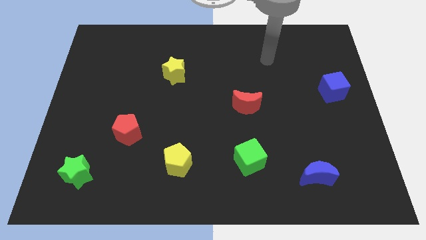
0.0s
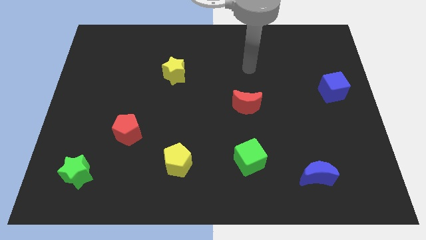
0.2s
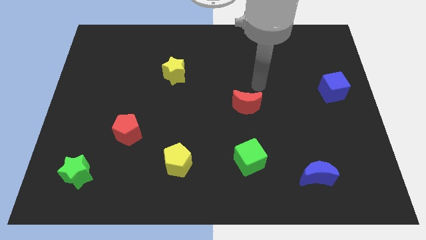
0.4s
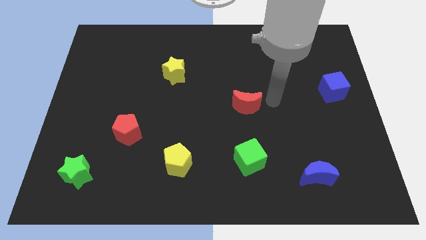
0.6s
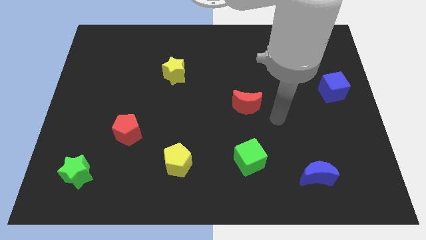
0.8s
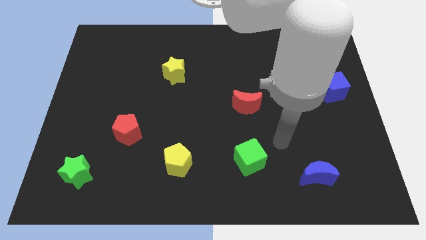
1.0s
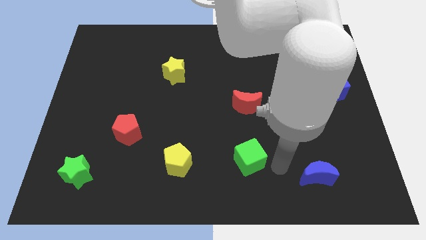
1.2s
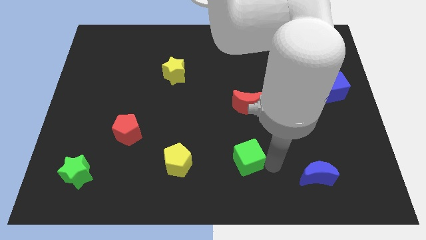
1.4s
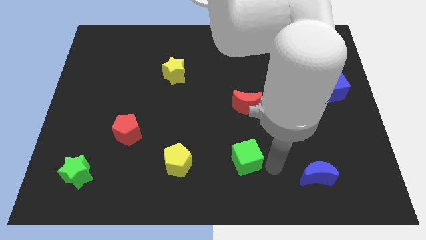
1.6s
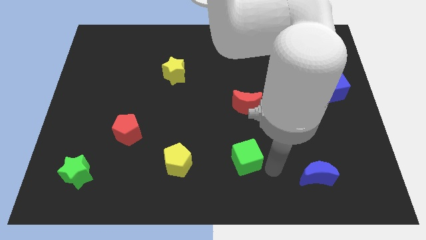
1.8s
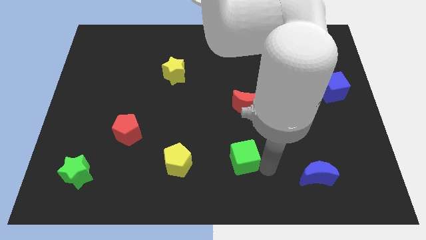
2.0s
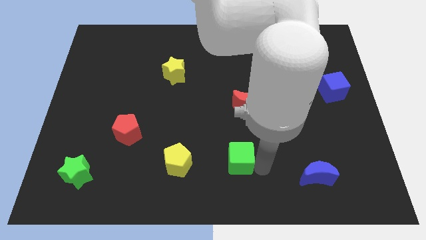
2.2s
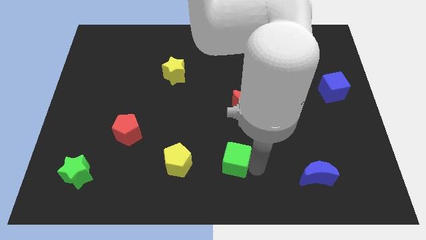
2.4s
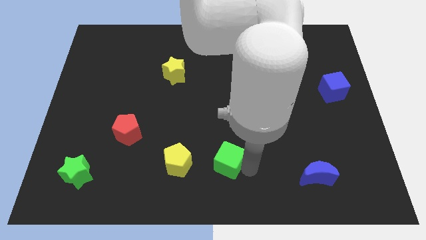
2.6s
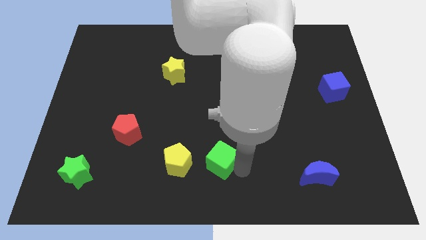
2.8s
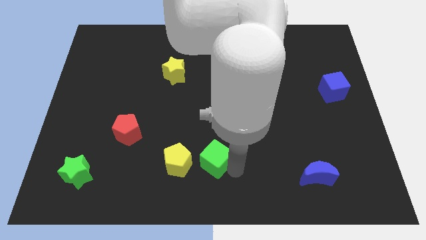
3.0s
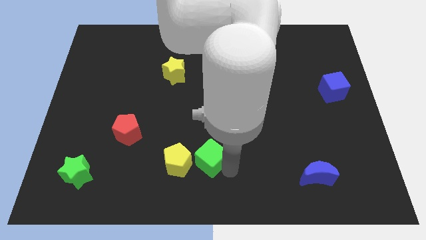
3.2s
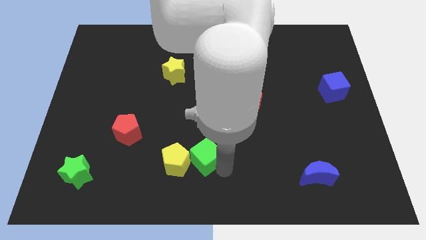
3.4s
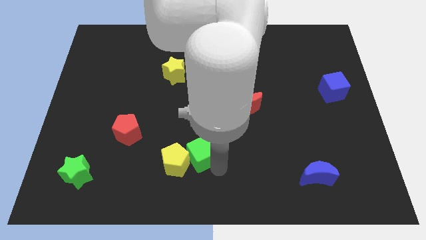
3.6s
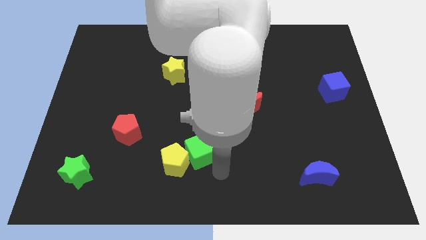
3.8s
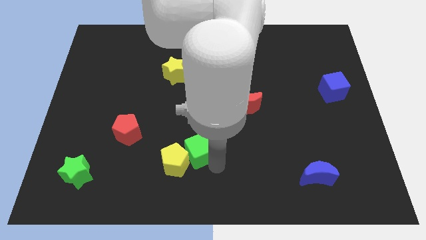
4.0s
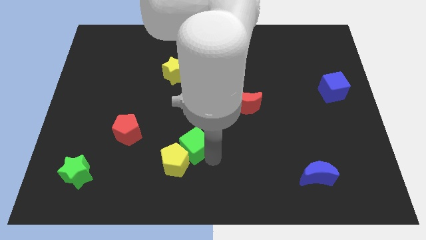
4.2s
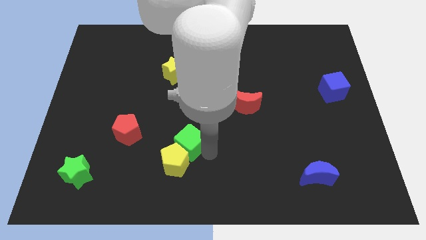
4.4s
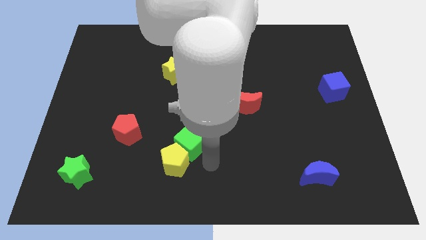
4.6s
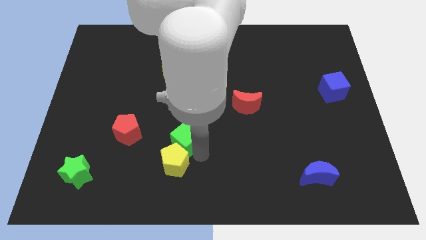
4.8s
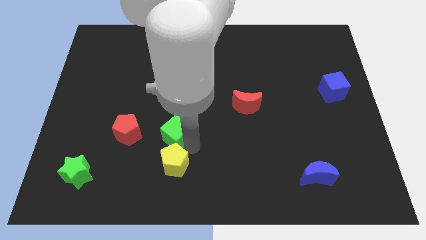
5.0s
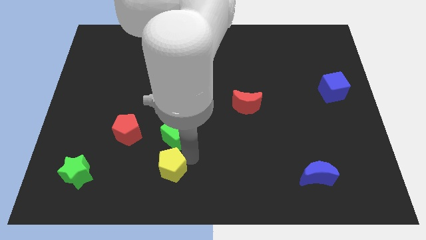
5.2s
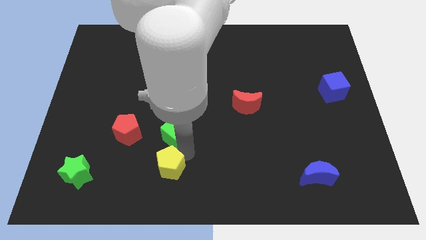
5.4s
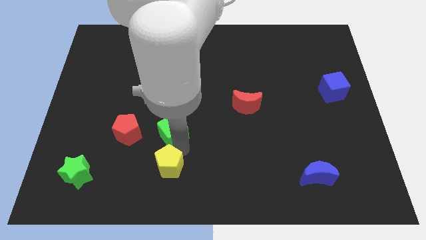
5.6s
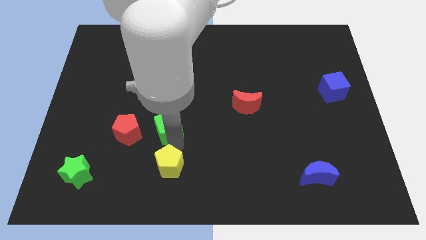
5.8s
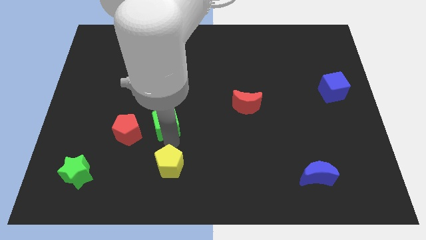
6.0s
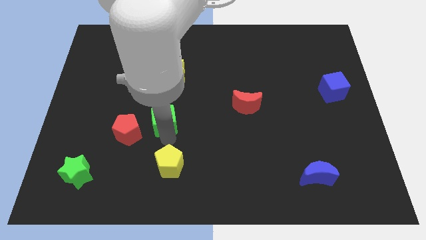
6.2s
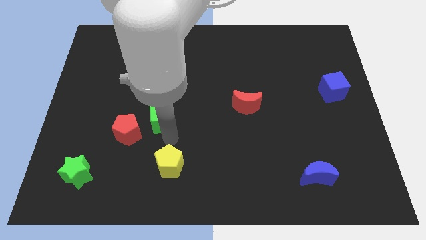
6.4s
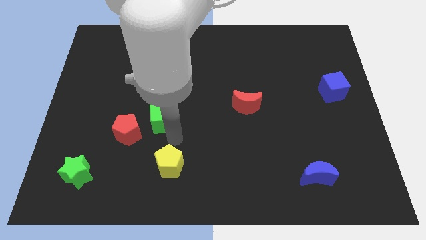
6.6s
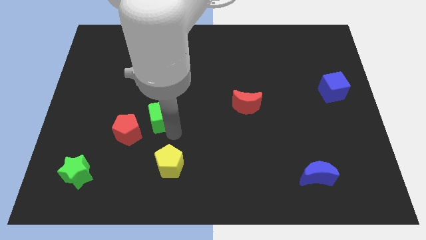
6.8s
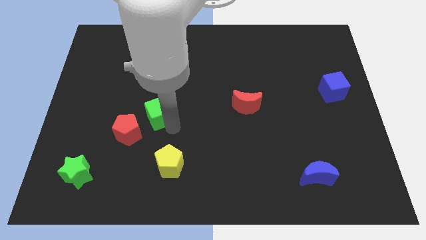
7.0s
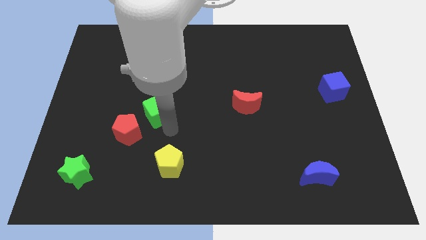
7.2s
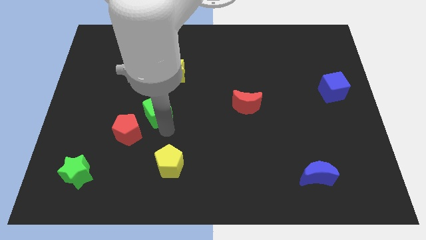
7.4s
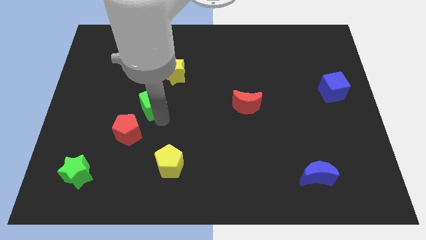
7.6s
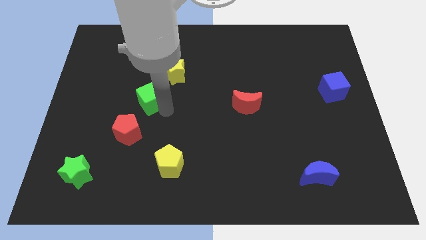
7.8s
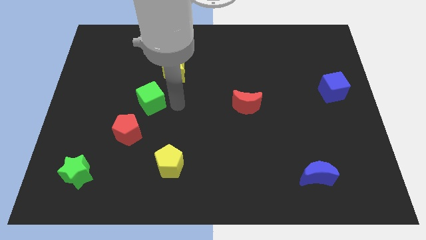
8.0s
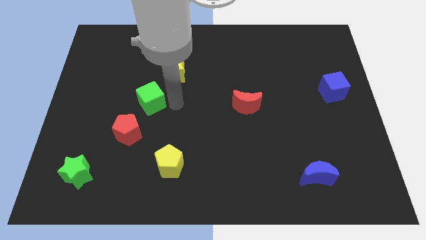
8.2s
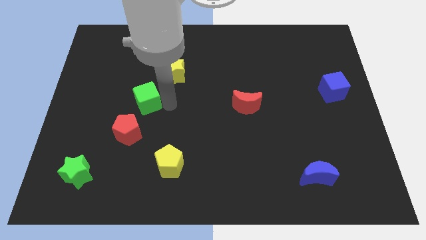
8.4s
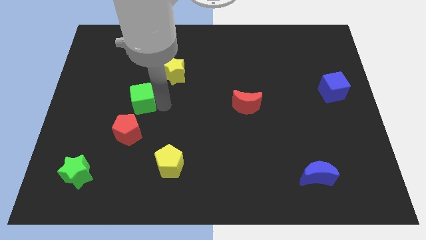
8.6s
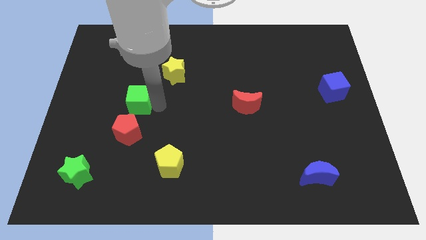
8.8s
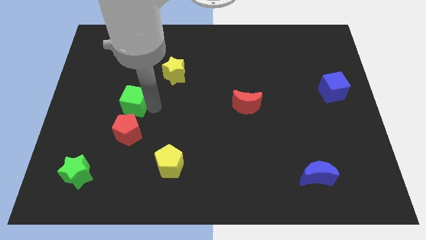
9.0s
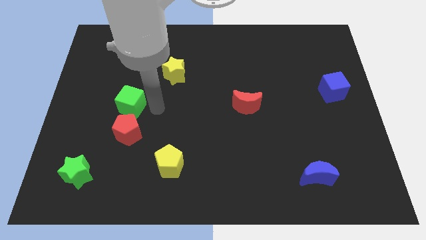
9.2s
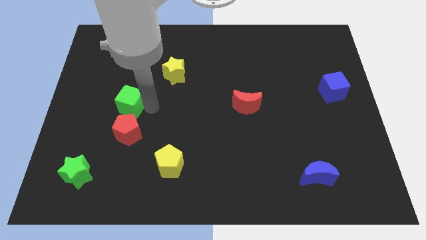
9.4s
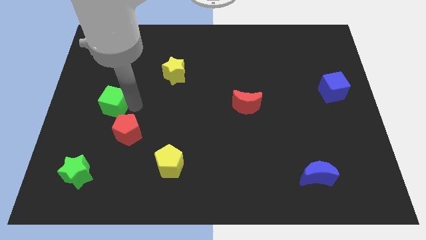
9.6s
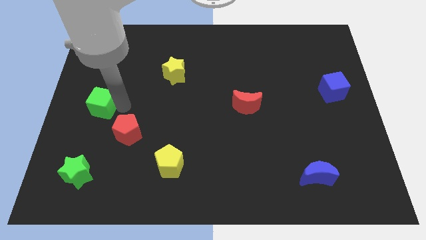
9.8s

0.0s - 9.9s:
push the green cube to the left side
